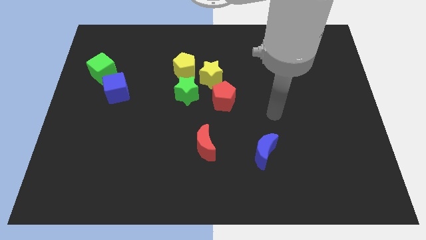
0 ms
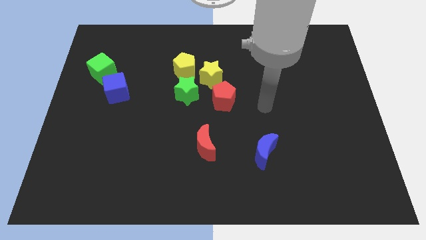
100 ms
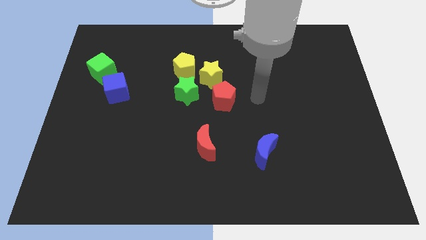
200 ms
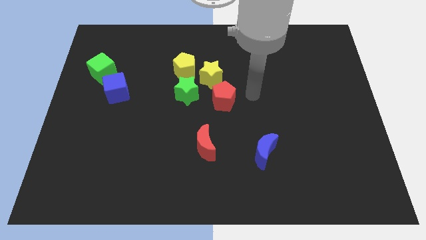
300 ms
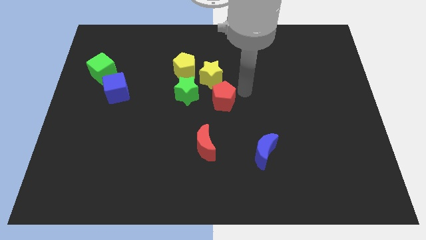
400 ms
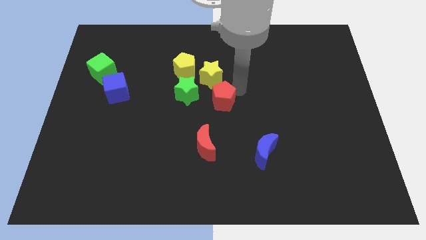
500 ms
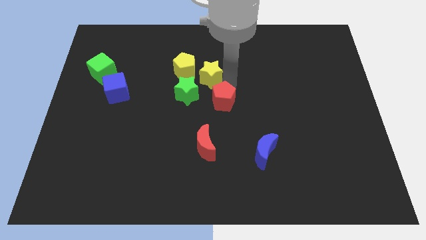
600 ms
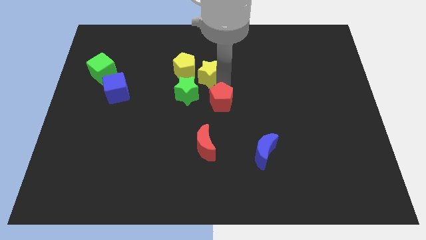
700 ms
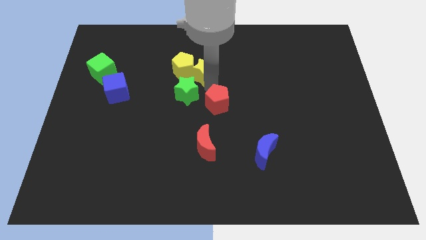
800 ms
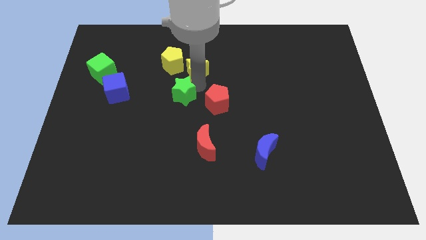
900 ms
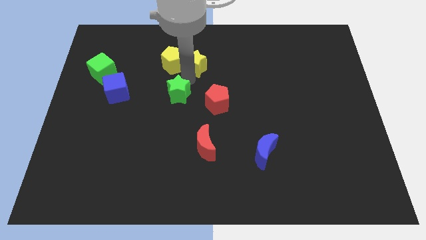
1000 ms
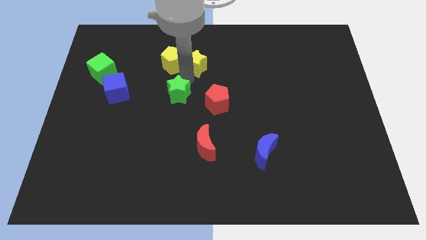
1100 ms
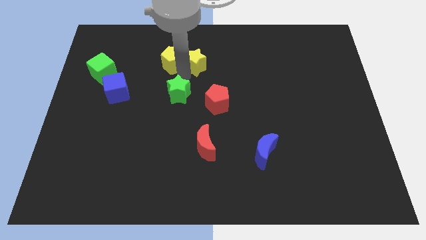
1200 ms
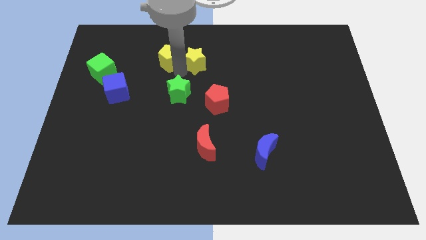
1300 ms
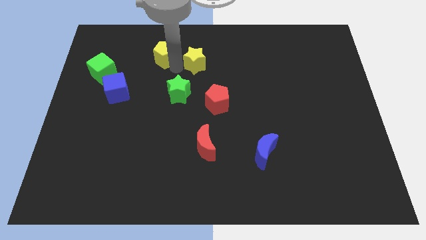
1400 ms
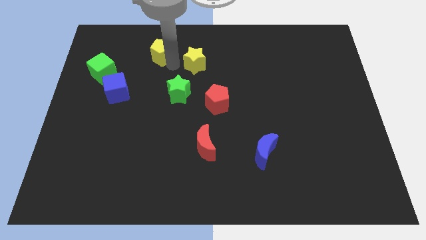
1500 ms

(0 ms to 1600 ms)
separate the yellow pentagon from the yellow star and green star

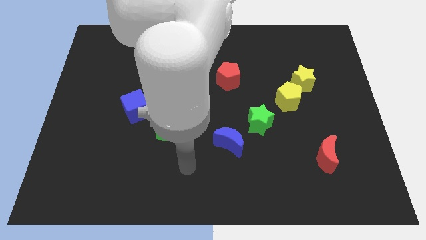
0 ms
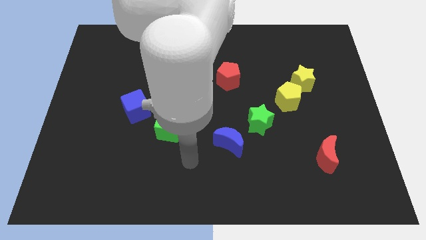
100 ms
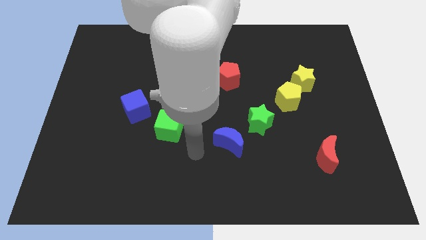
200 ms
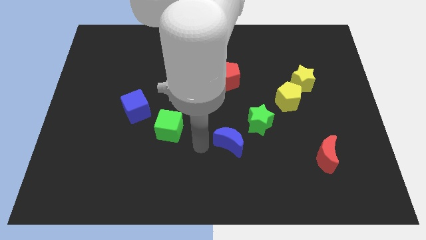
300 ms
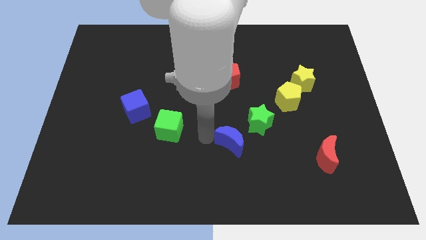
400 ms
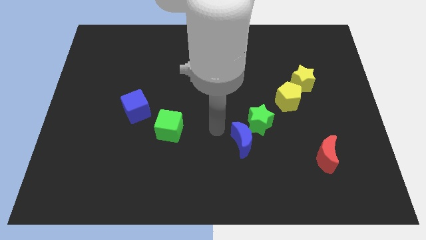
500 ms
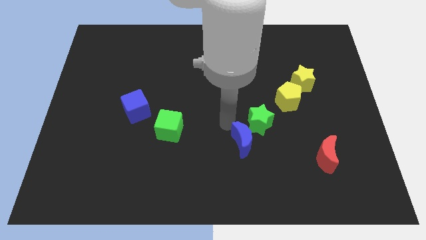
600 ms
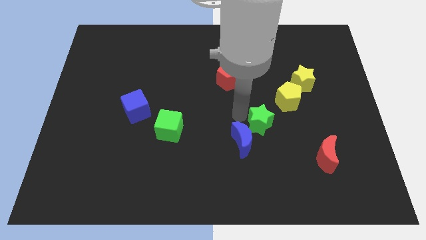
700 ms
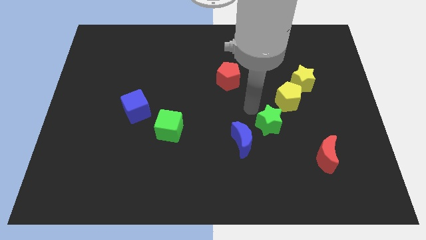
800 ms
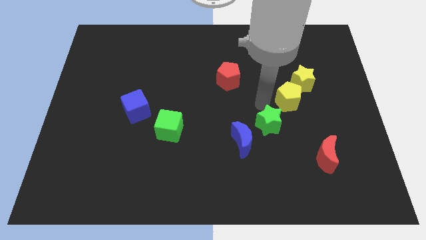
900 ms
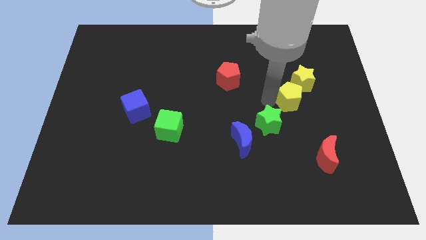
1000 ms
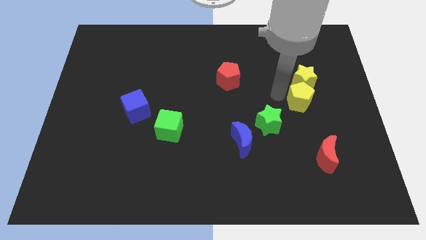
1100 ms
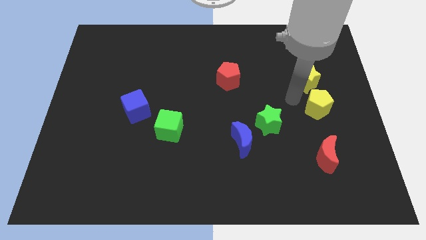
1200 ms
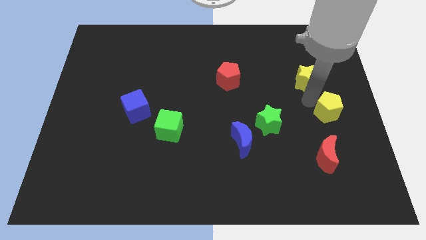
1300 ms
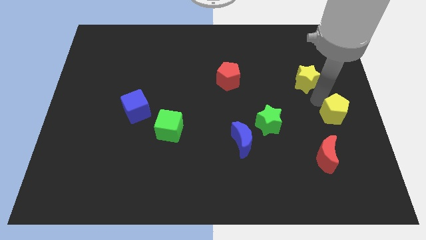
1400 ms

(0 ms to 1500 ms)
separate the yellow star from the yellow pentagon

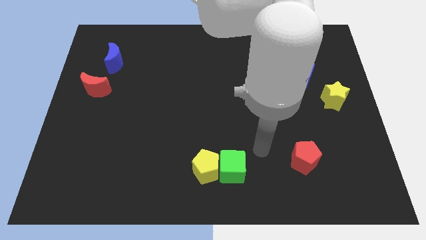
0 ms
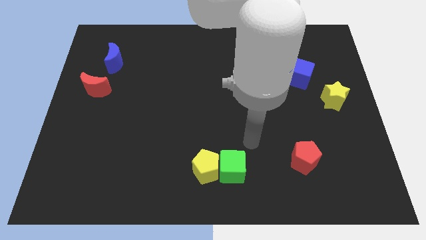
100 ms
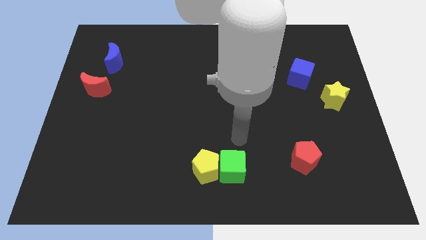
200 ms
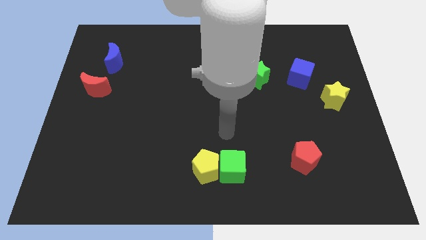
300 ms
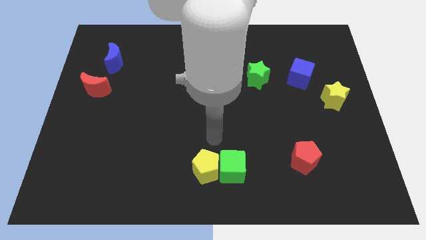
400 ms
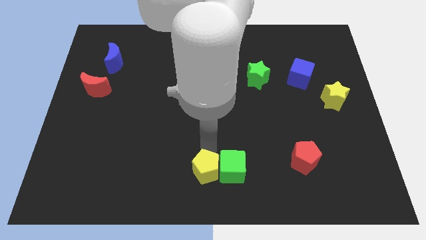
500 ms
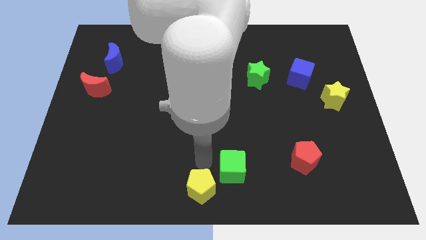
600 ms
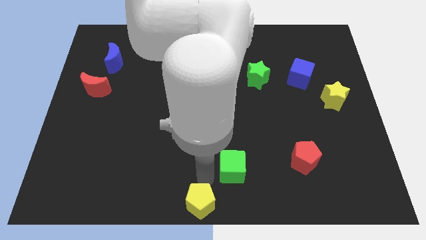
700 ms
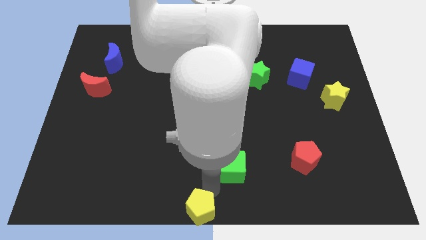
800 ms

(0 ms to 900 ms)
move the green cube away from the yellow pentagon

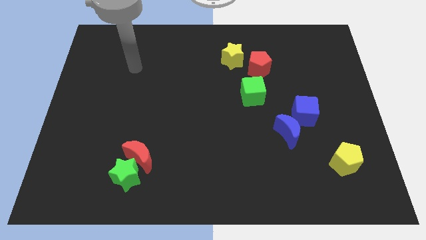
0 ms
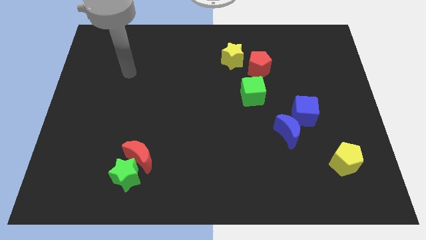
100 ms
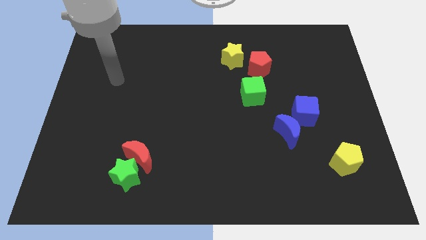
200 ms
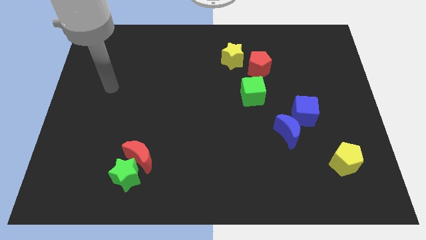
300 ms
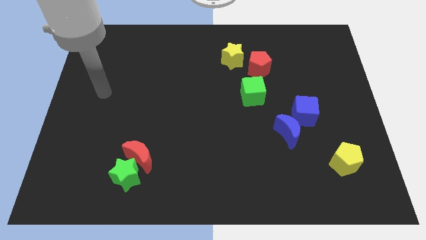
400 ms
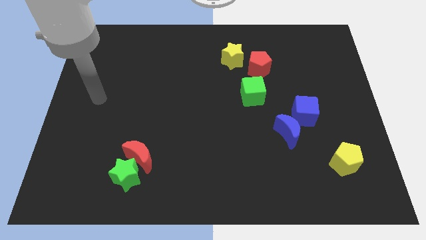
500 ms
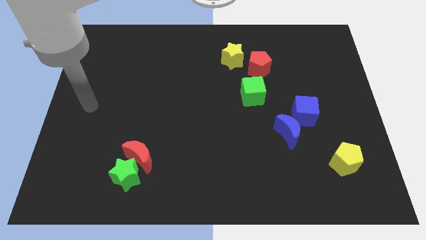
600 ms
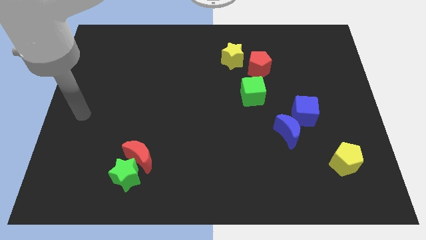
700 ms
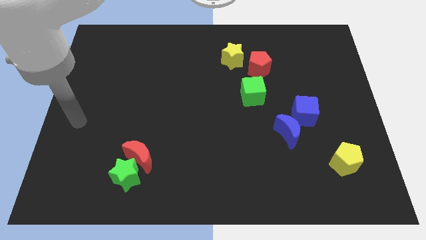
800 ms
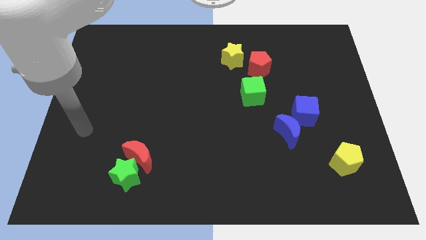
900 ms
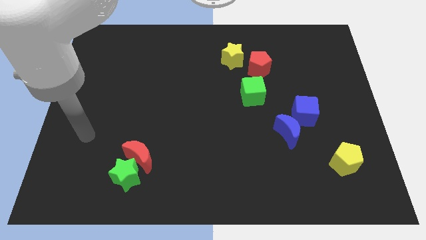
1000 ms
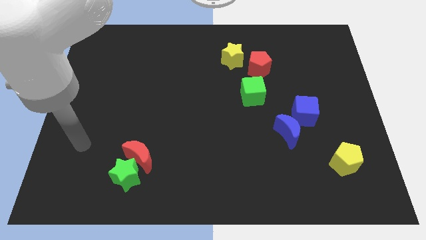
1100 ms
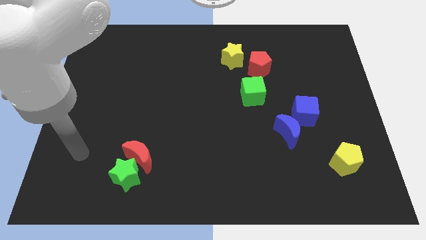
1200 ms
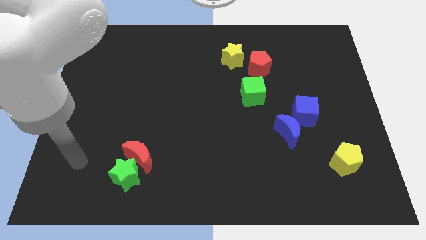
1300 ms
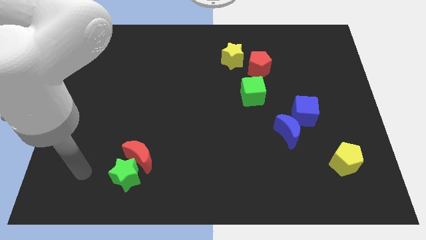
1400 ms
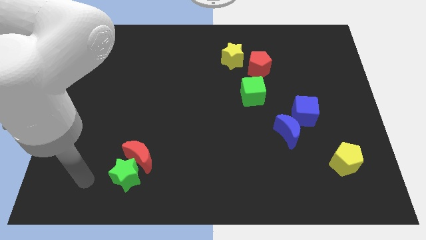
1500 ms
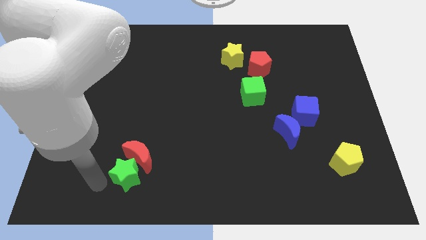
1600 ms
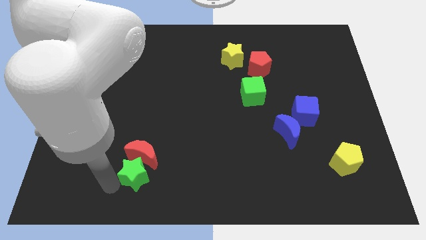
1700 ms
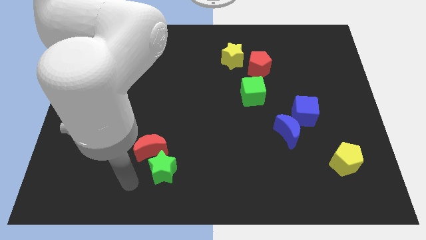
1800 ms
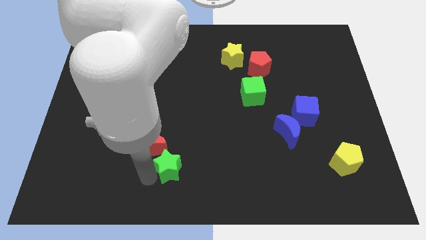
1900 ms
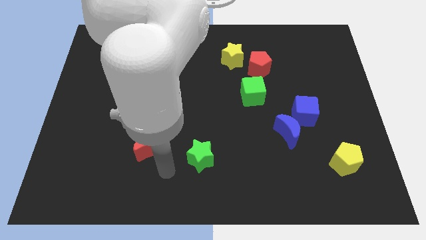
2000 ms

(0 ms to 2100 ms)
move the red moon away from the green star

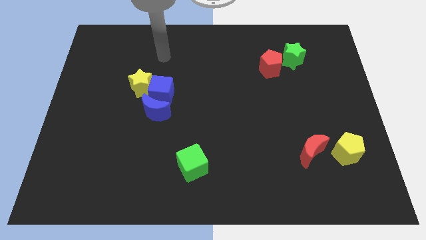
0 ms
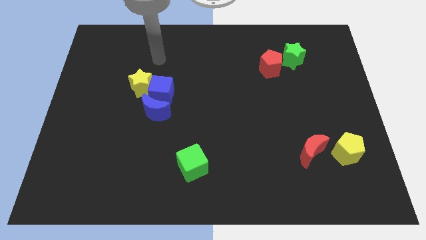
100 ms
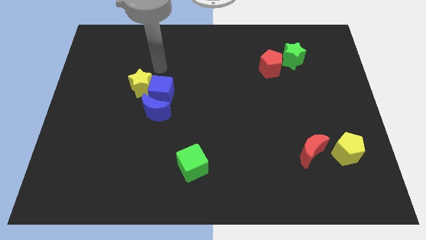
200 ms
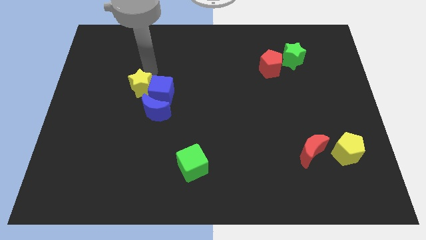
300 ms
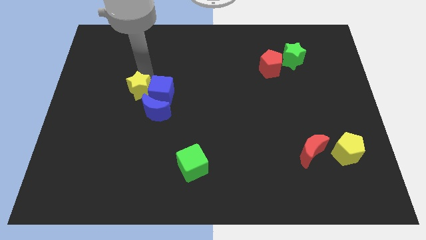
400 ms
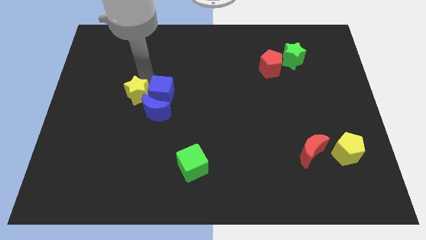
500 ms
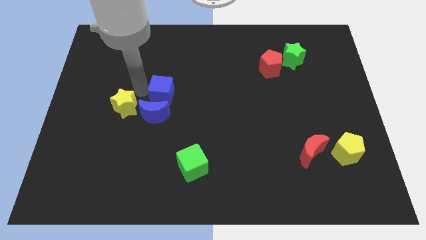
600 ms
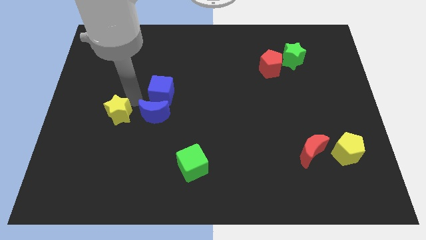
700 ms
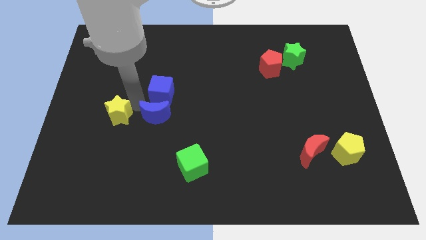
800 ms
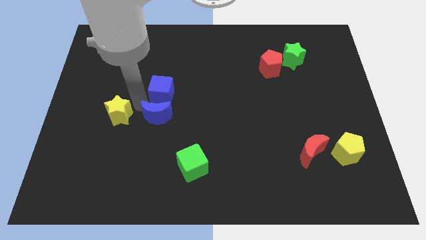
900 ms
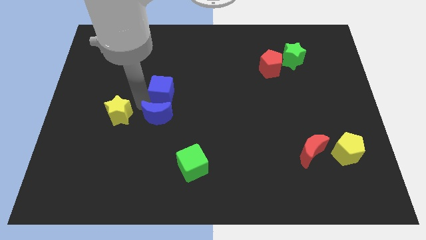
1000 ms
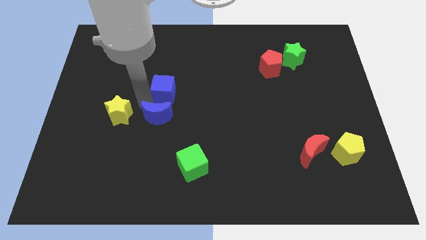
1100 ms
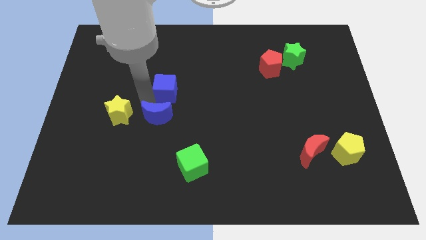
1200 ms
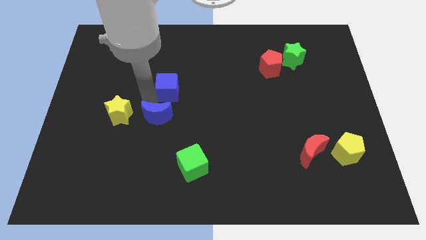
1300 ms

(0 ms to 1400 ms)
pull the blue cube apart from the yellow star and blue moon

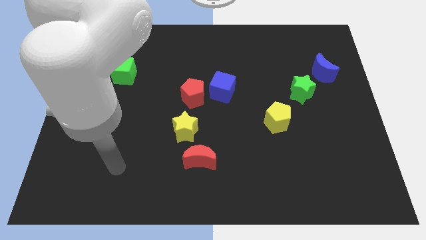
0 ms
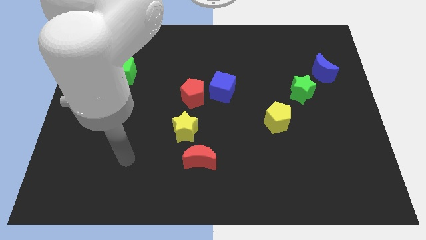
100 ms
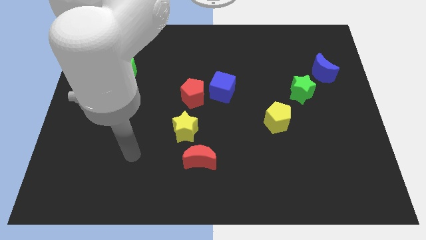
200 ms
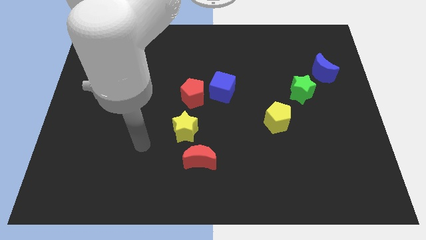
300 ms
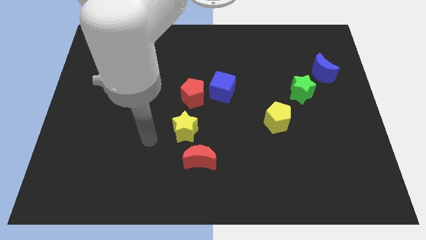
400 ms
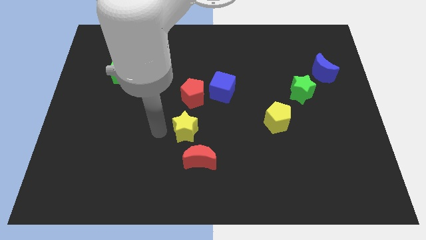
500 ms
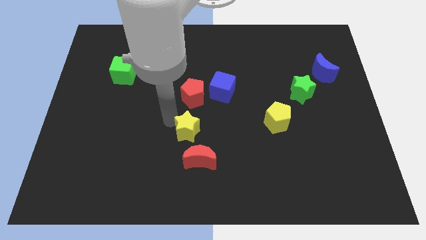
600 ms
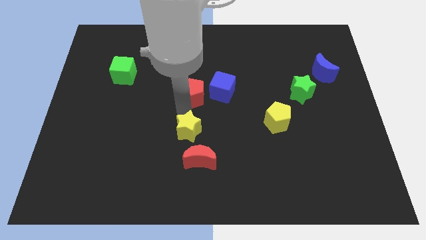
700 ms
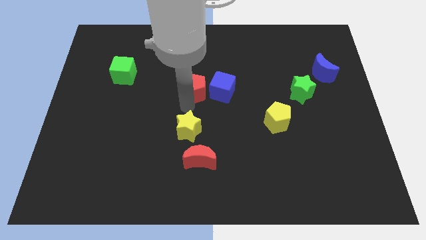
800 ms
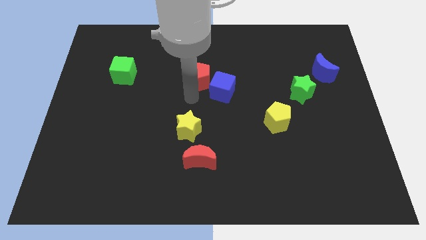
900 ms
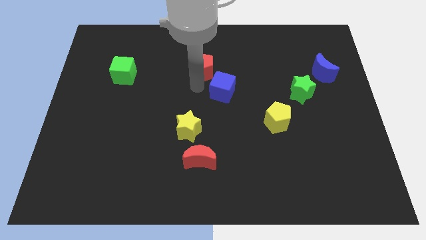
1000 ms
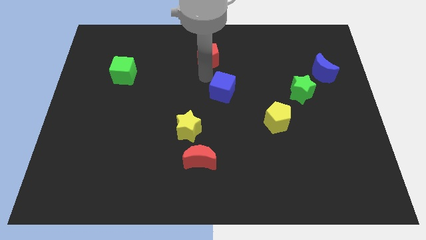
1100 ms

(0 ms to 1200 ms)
pull the blue cube apart from the red pentagon

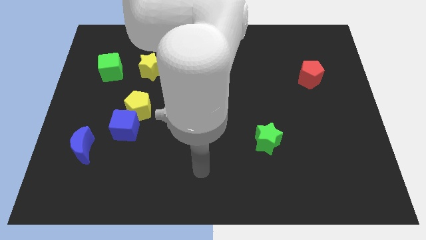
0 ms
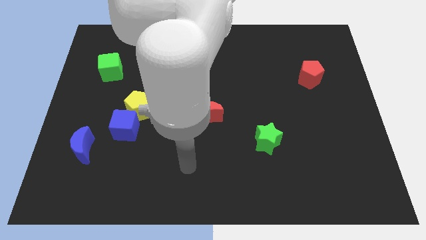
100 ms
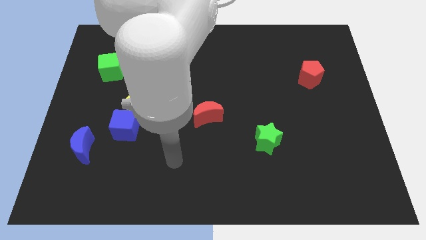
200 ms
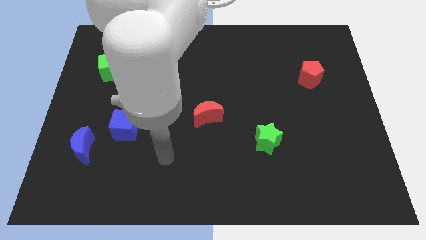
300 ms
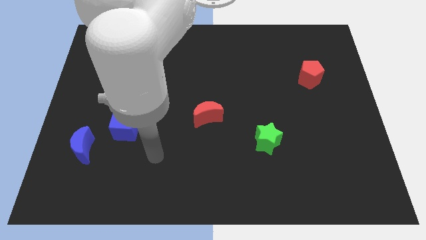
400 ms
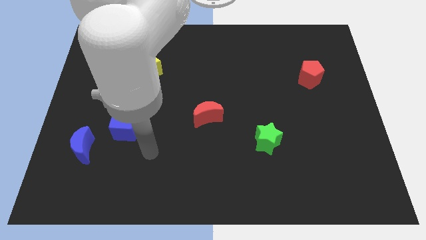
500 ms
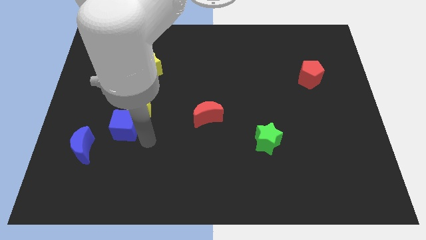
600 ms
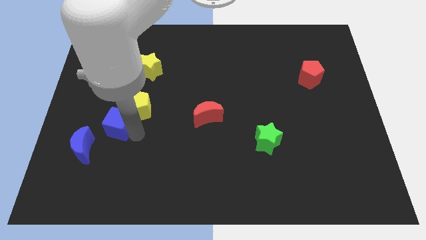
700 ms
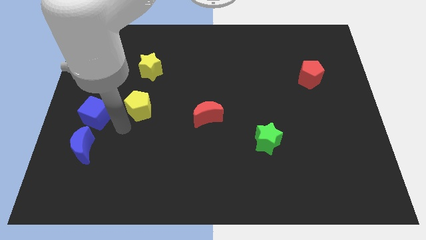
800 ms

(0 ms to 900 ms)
pull the yellow pentagon apart from the blue cube
